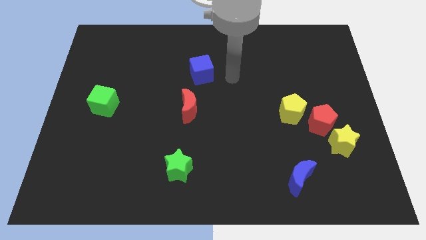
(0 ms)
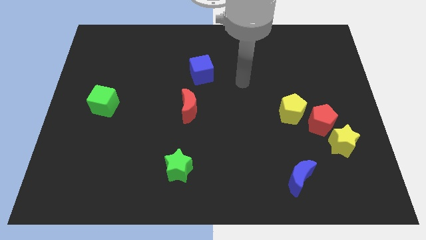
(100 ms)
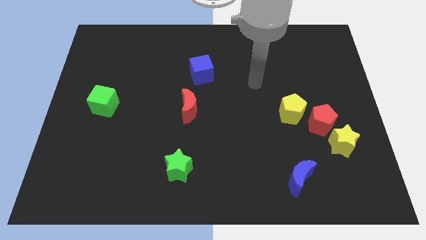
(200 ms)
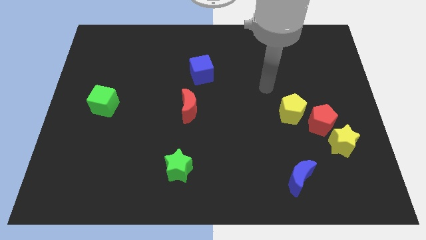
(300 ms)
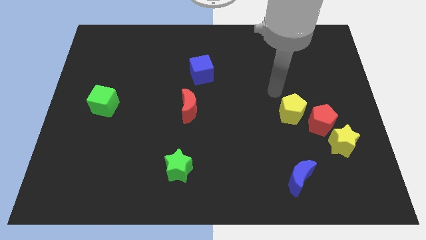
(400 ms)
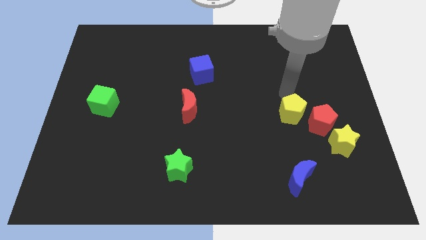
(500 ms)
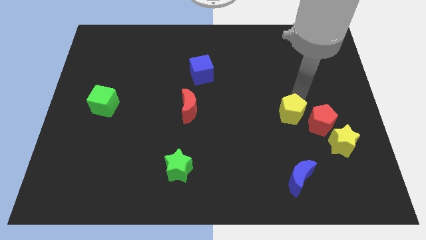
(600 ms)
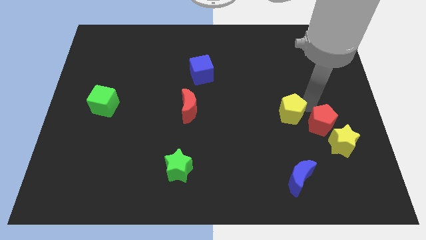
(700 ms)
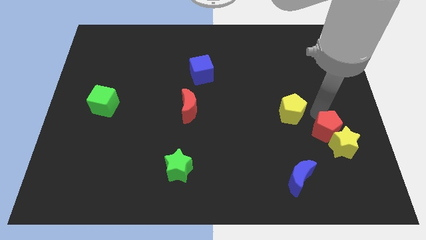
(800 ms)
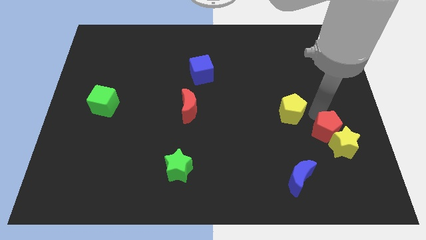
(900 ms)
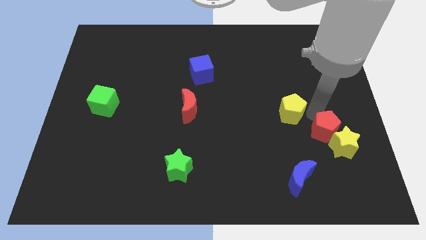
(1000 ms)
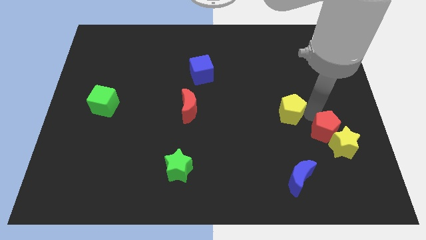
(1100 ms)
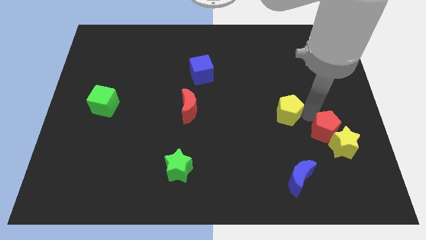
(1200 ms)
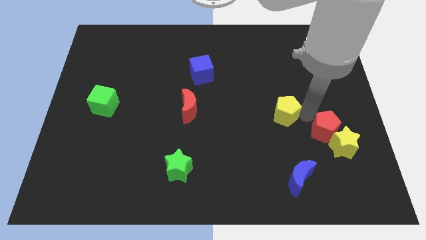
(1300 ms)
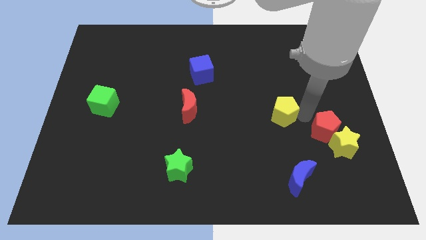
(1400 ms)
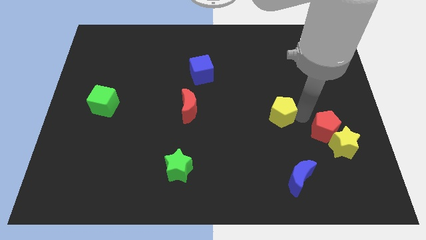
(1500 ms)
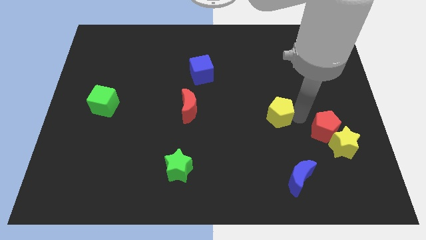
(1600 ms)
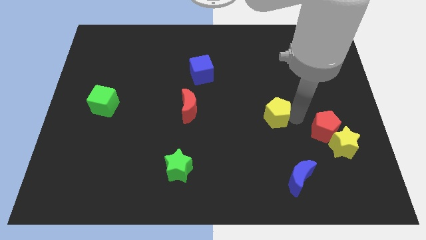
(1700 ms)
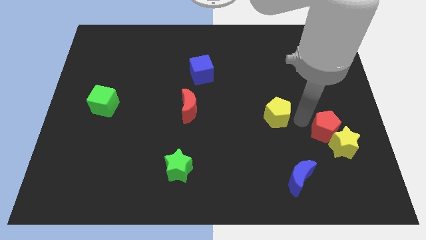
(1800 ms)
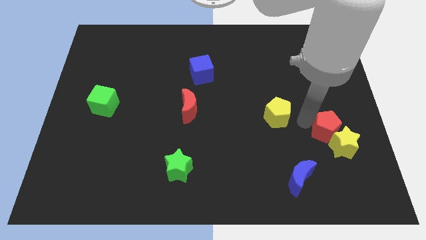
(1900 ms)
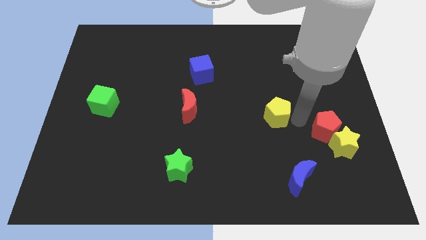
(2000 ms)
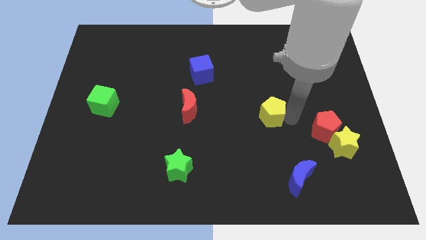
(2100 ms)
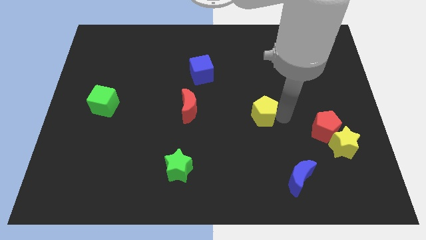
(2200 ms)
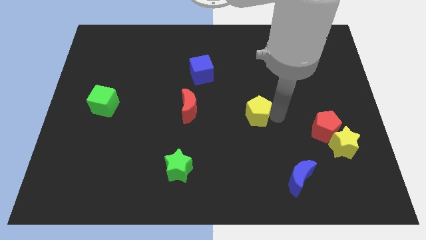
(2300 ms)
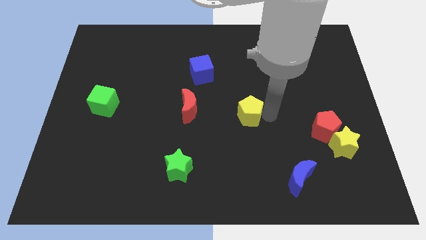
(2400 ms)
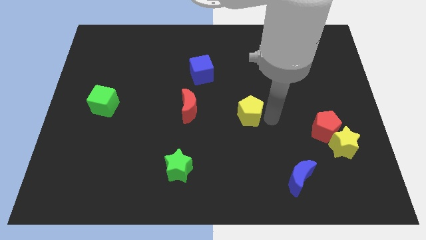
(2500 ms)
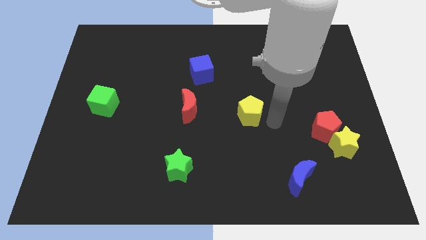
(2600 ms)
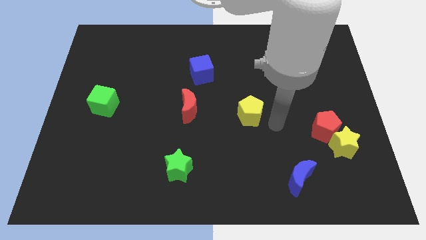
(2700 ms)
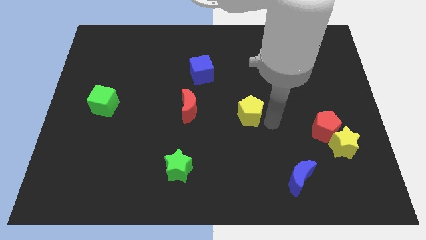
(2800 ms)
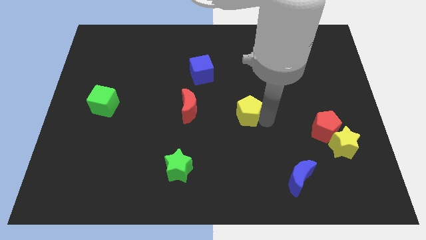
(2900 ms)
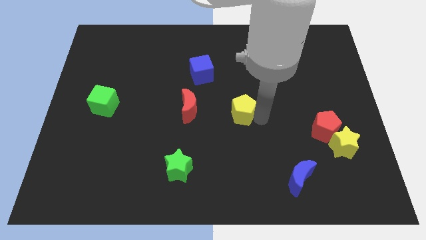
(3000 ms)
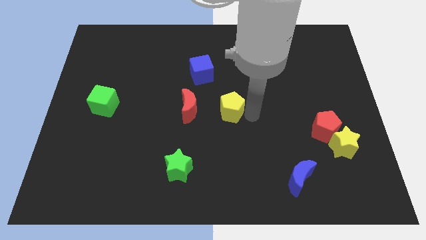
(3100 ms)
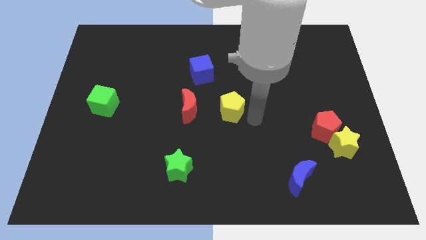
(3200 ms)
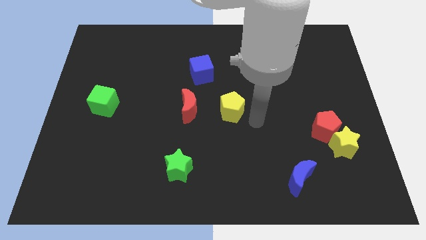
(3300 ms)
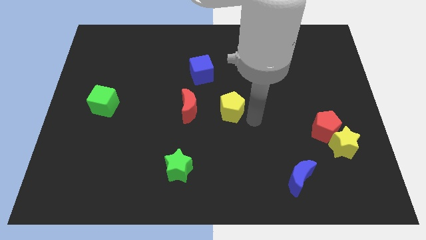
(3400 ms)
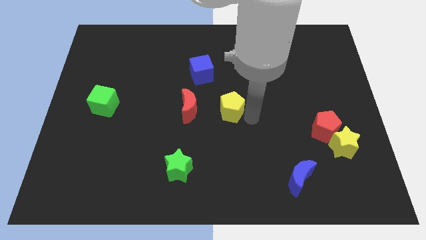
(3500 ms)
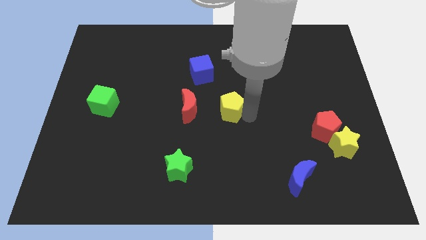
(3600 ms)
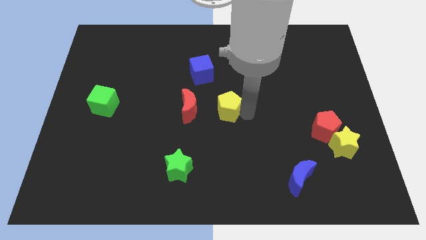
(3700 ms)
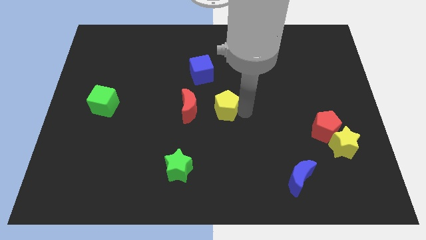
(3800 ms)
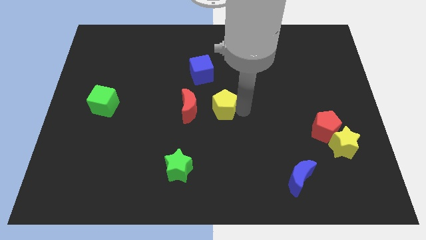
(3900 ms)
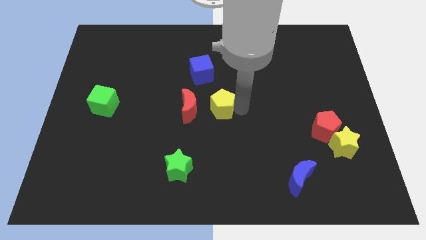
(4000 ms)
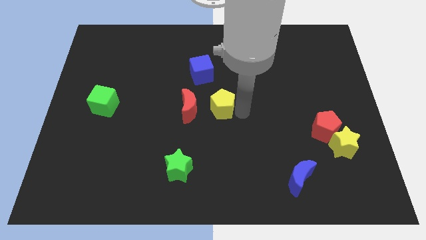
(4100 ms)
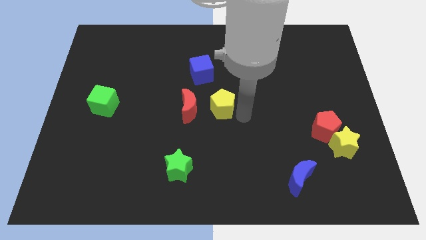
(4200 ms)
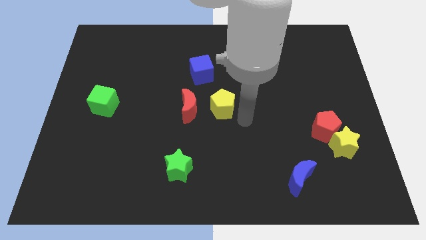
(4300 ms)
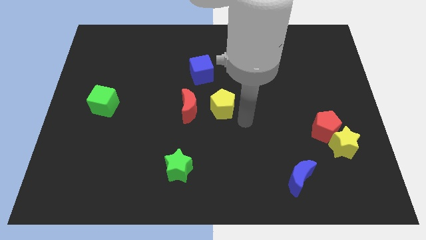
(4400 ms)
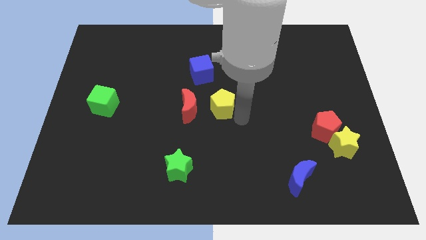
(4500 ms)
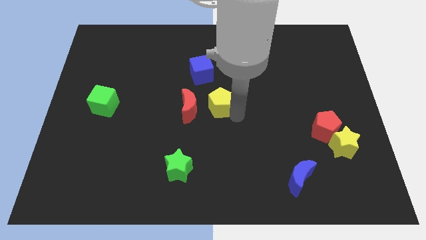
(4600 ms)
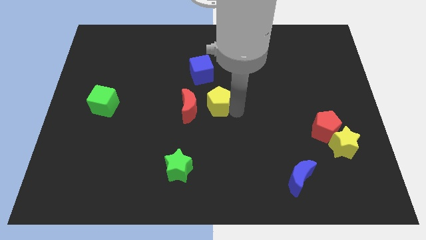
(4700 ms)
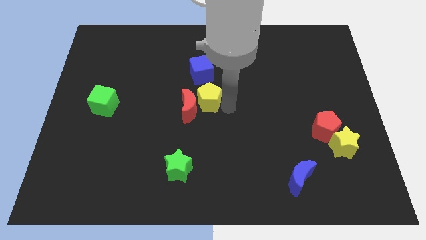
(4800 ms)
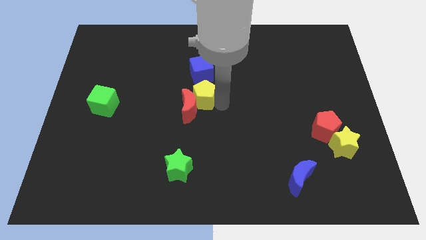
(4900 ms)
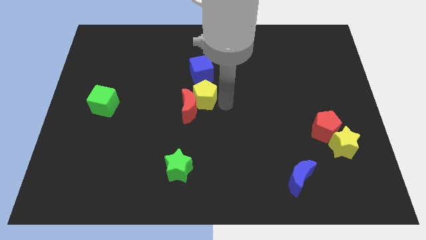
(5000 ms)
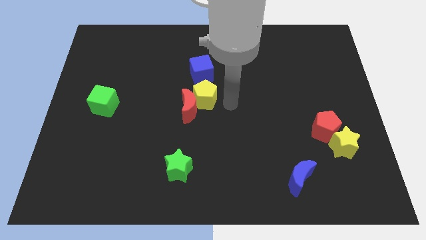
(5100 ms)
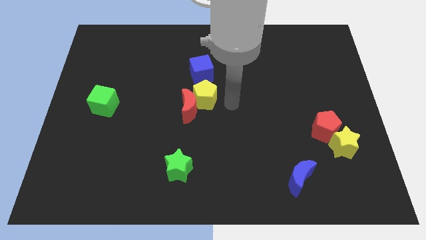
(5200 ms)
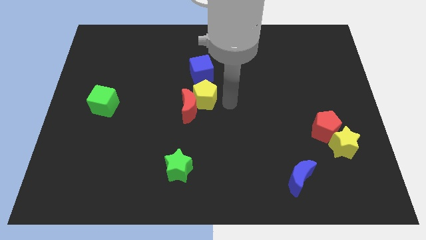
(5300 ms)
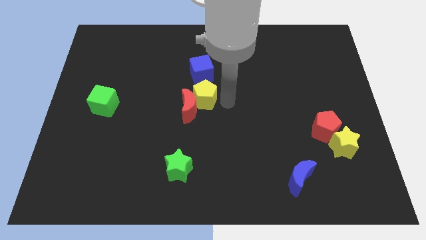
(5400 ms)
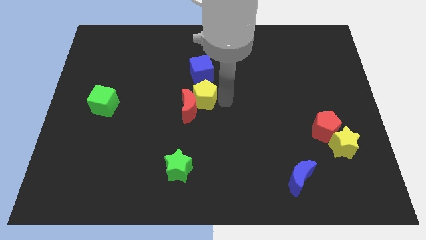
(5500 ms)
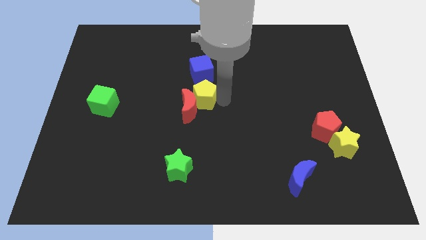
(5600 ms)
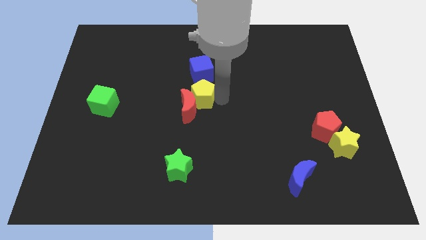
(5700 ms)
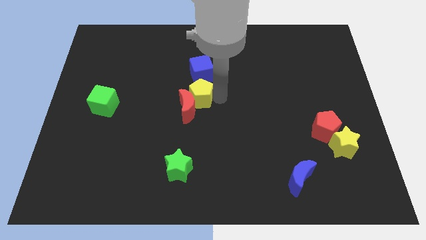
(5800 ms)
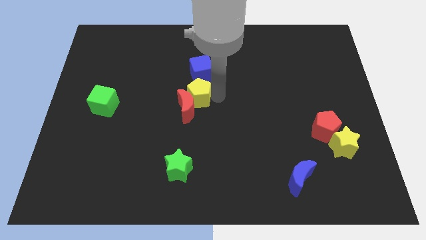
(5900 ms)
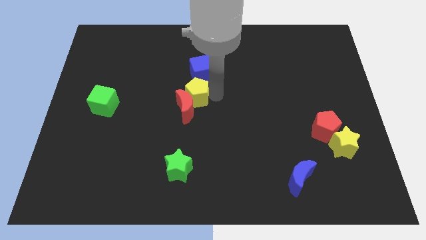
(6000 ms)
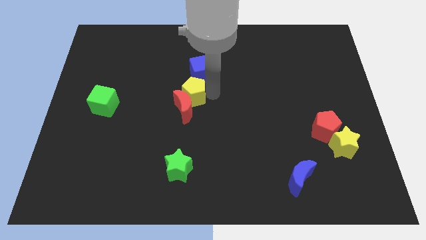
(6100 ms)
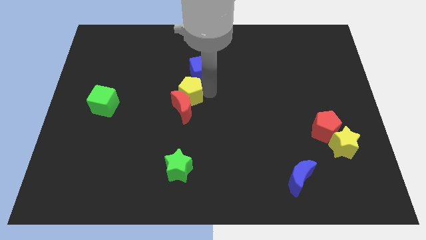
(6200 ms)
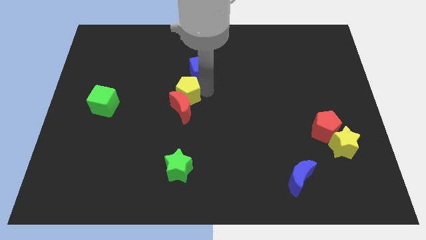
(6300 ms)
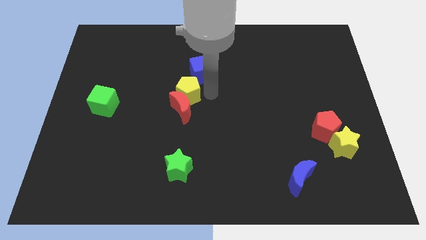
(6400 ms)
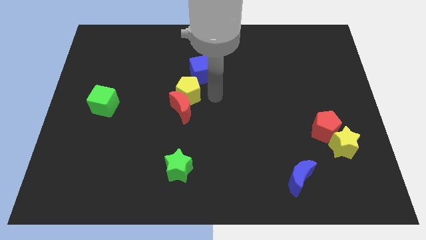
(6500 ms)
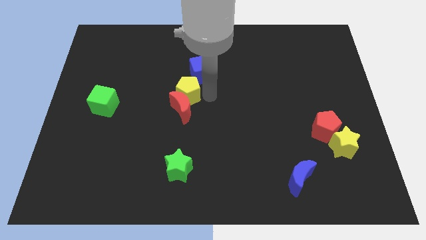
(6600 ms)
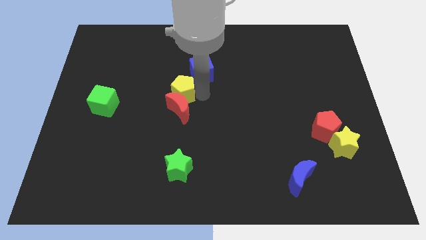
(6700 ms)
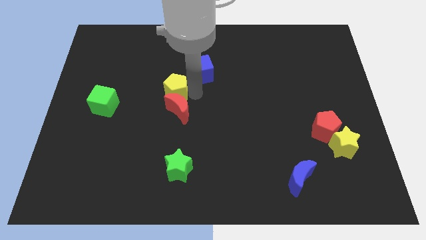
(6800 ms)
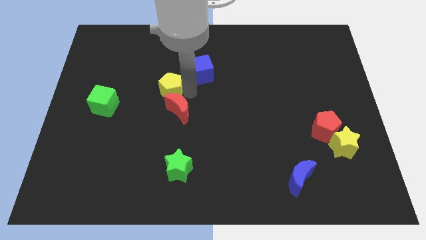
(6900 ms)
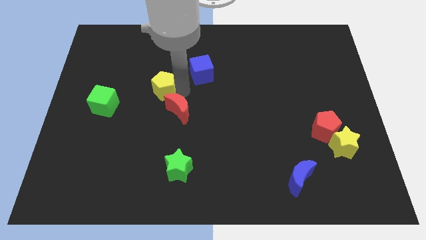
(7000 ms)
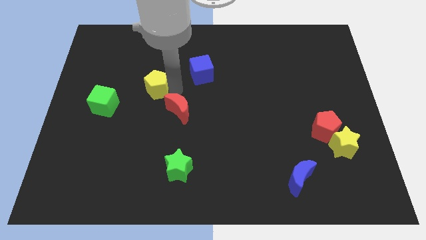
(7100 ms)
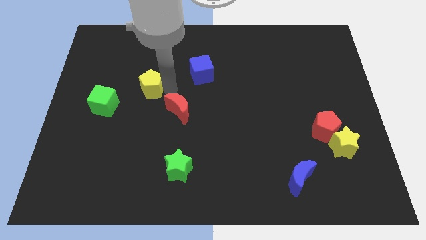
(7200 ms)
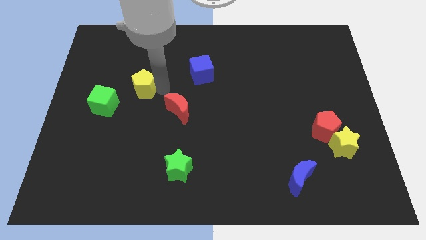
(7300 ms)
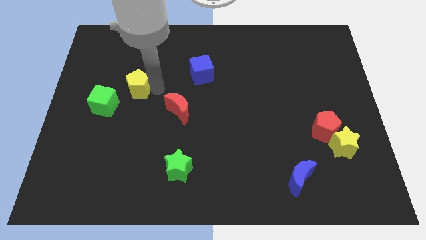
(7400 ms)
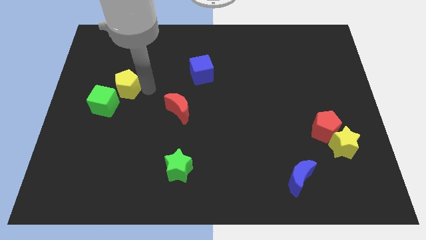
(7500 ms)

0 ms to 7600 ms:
push the yellow pentagon to the top of the green cube
